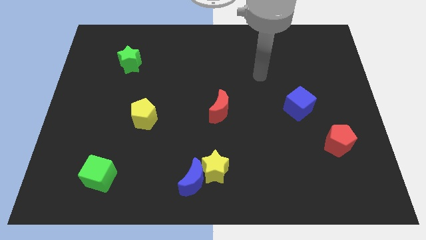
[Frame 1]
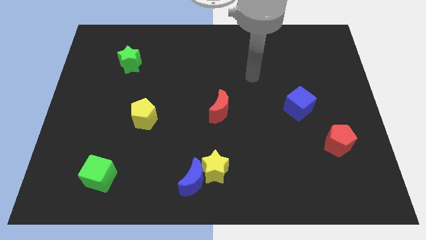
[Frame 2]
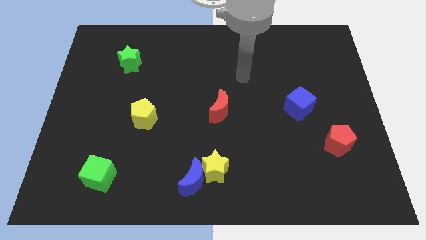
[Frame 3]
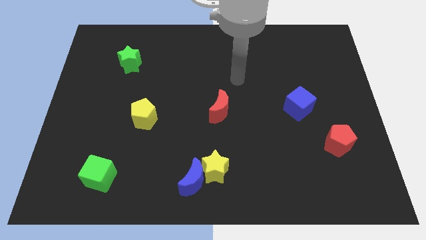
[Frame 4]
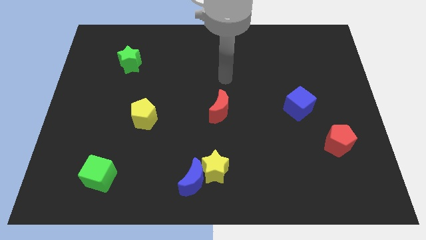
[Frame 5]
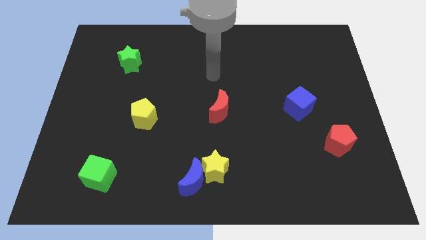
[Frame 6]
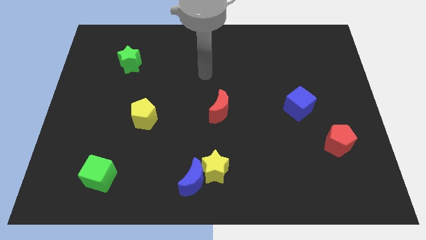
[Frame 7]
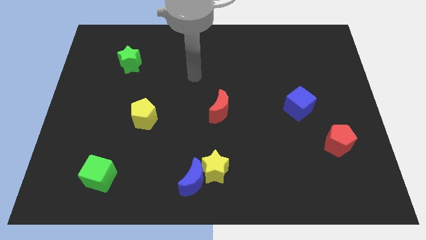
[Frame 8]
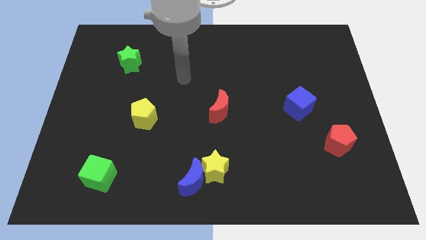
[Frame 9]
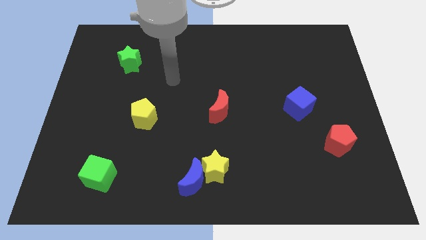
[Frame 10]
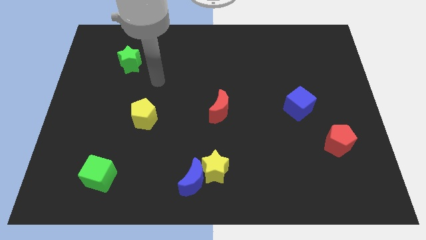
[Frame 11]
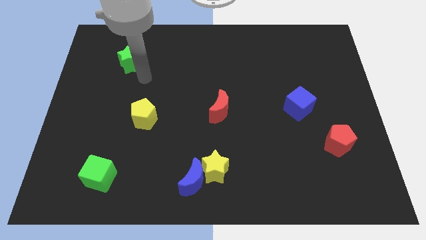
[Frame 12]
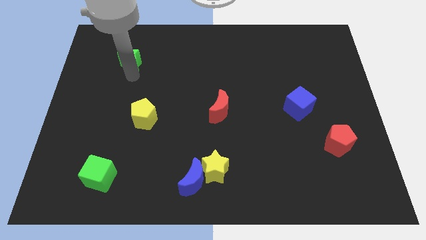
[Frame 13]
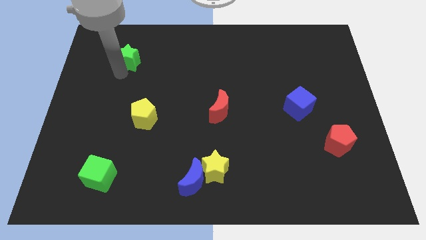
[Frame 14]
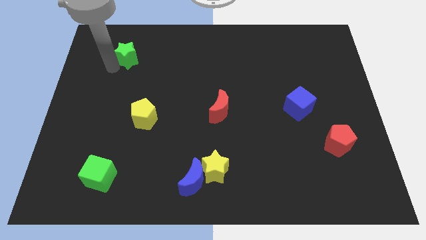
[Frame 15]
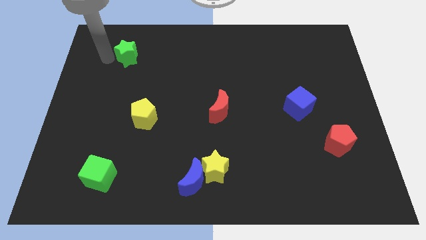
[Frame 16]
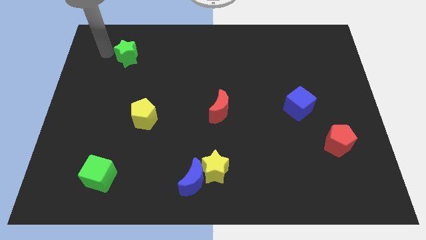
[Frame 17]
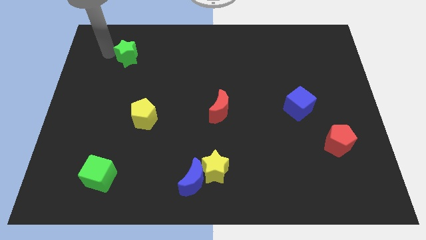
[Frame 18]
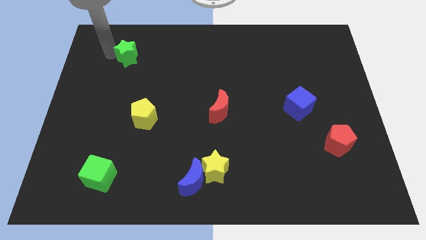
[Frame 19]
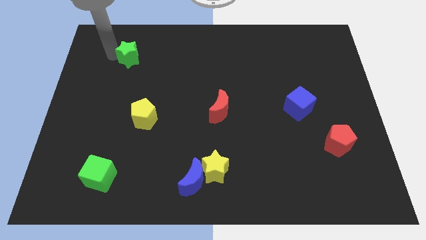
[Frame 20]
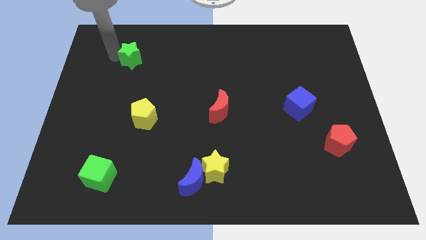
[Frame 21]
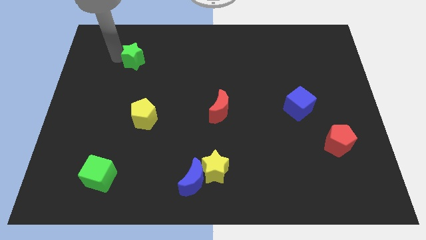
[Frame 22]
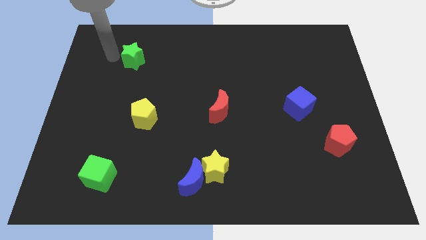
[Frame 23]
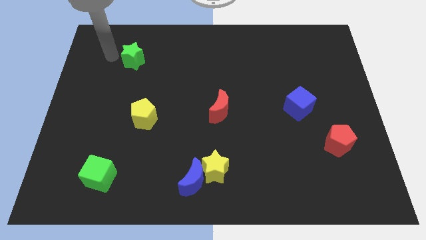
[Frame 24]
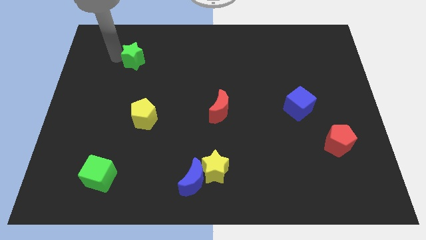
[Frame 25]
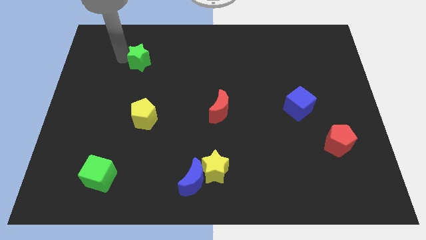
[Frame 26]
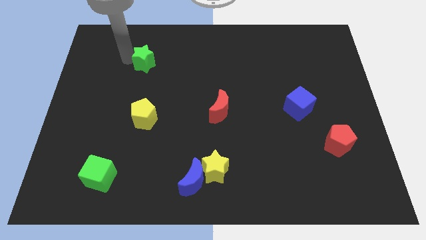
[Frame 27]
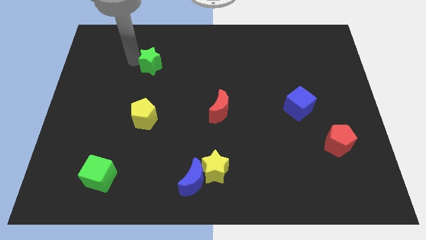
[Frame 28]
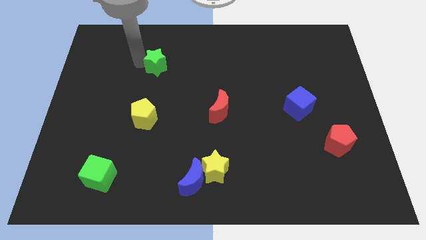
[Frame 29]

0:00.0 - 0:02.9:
move the green star right a little

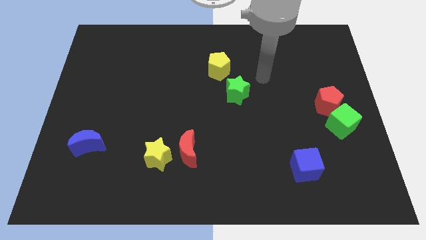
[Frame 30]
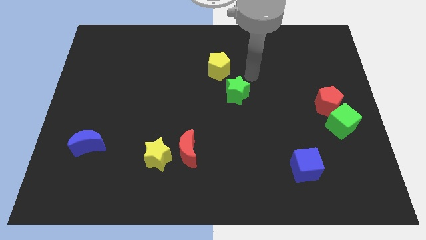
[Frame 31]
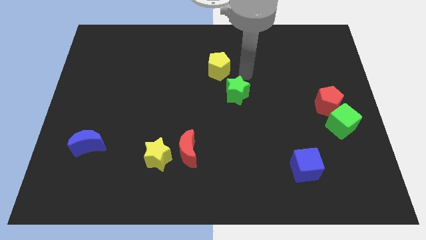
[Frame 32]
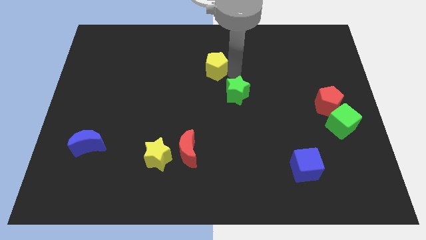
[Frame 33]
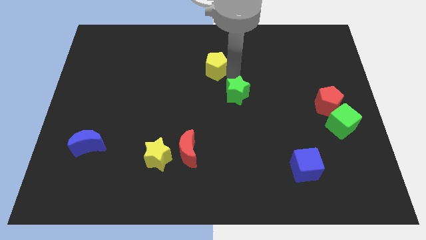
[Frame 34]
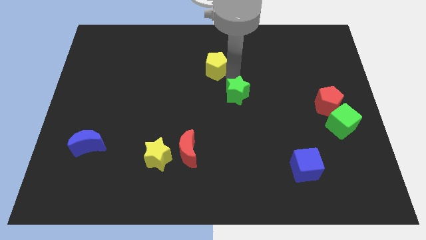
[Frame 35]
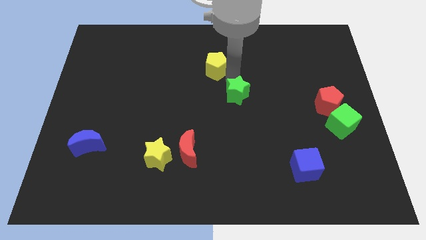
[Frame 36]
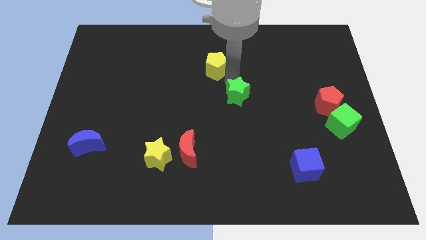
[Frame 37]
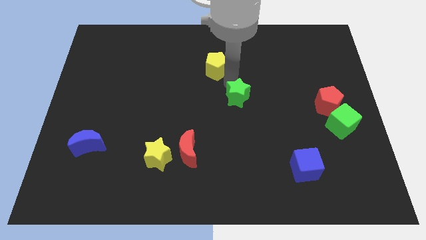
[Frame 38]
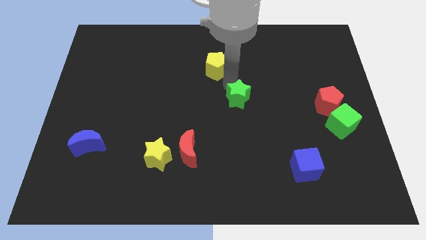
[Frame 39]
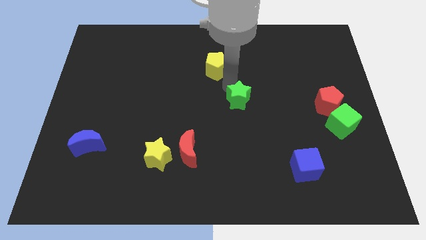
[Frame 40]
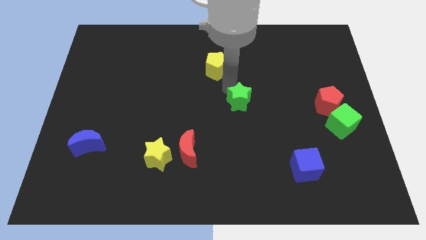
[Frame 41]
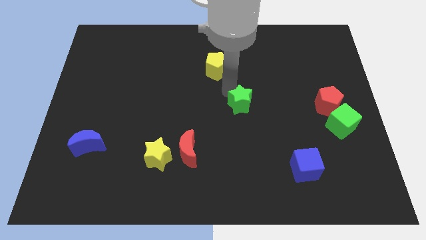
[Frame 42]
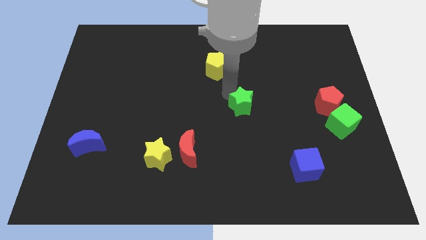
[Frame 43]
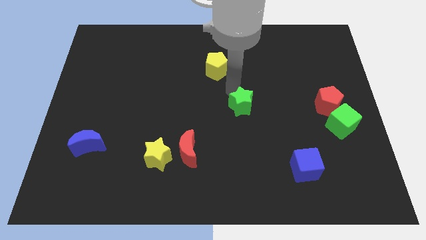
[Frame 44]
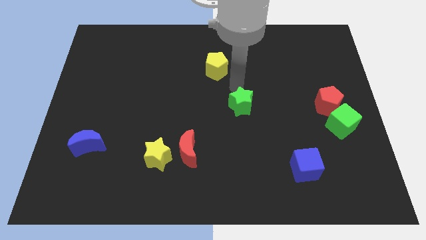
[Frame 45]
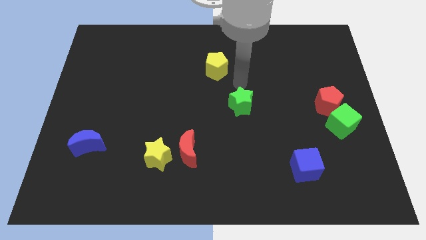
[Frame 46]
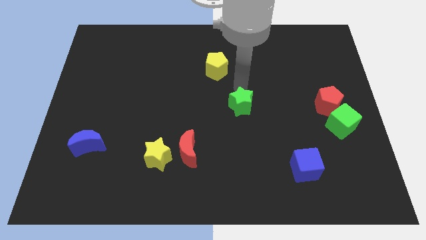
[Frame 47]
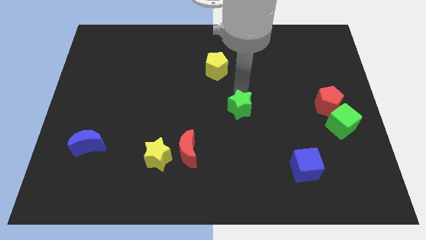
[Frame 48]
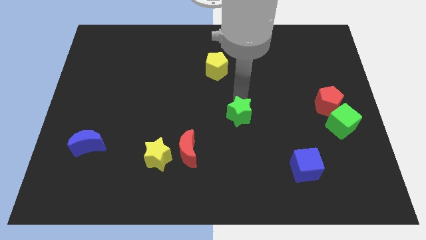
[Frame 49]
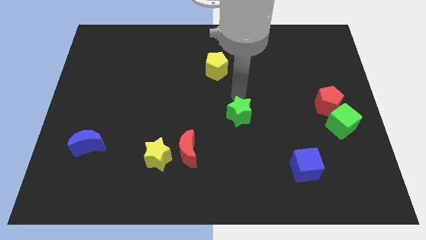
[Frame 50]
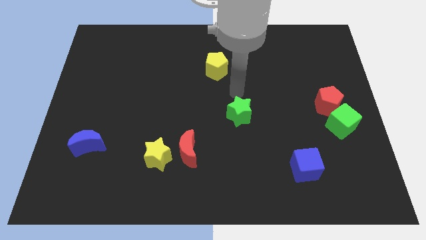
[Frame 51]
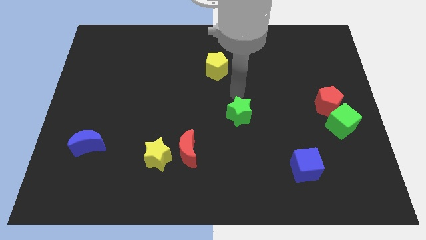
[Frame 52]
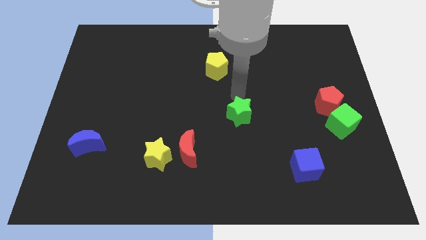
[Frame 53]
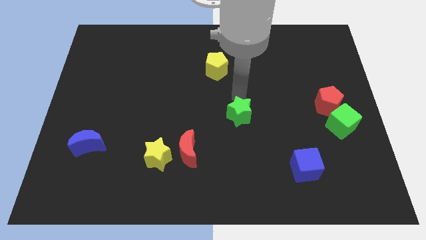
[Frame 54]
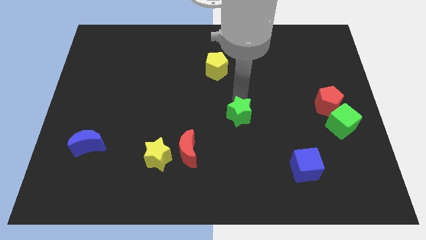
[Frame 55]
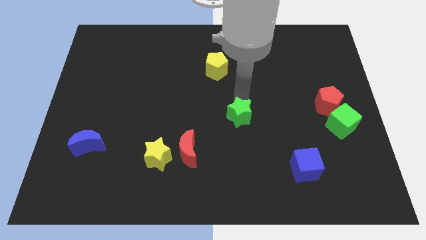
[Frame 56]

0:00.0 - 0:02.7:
slide the green star down a little bit

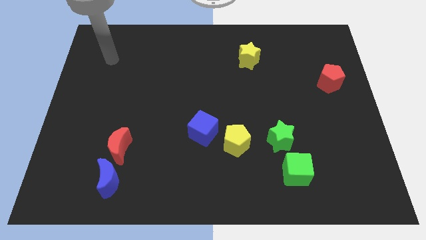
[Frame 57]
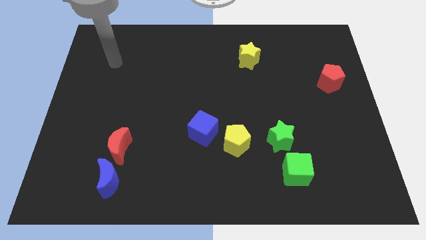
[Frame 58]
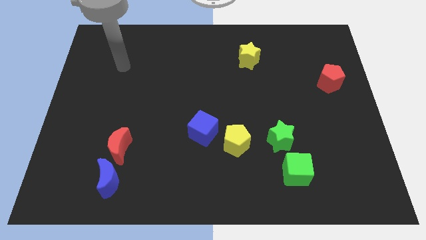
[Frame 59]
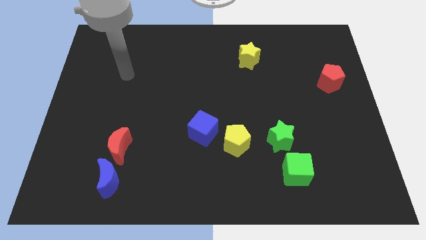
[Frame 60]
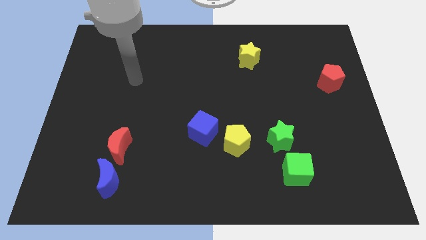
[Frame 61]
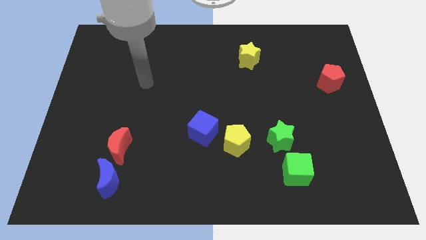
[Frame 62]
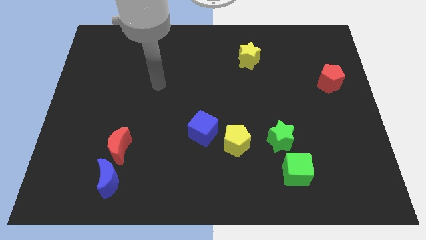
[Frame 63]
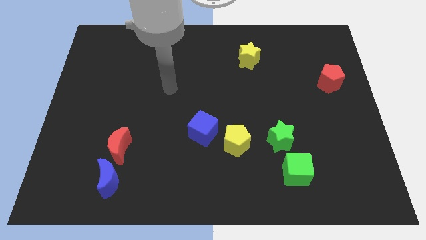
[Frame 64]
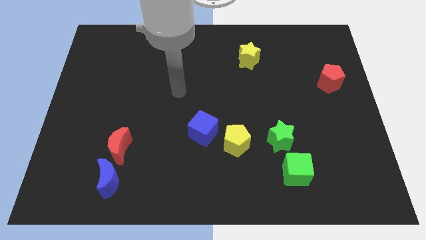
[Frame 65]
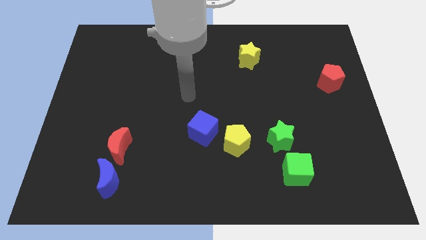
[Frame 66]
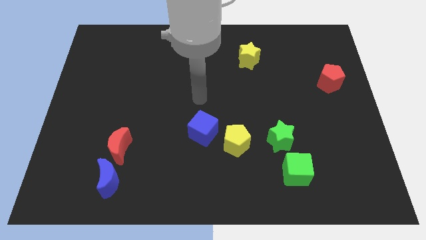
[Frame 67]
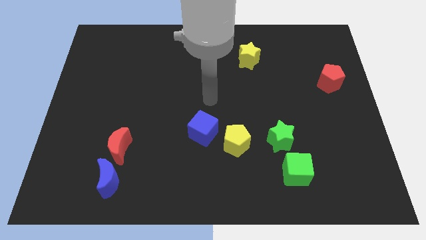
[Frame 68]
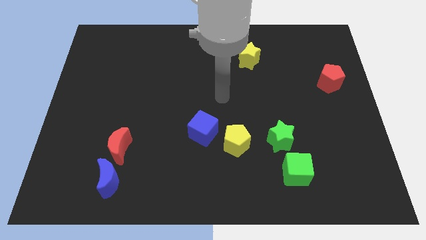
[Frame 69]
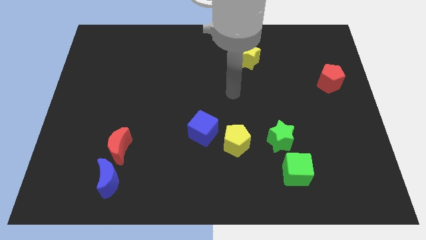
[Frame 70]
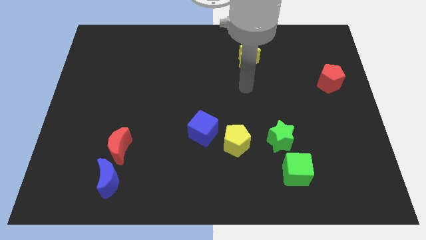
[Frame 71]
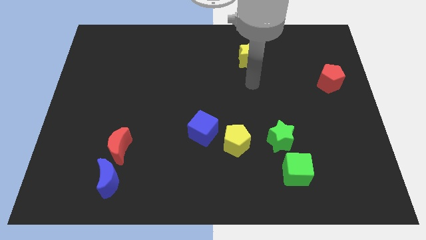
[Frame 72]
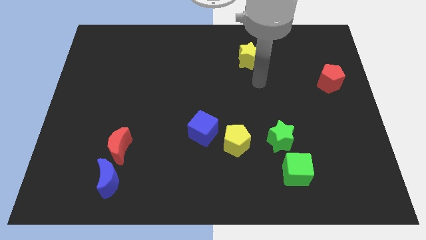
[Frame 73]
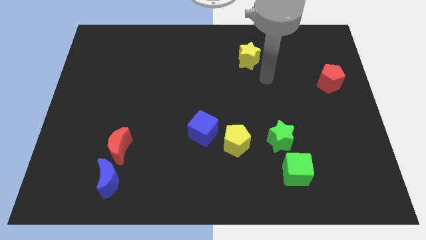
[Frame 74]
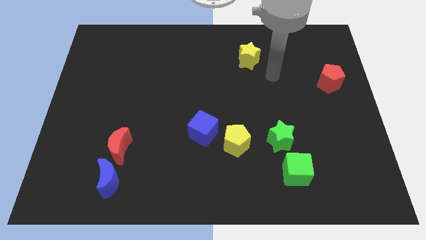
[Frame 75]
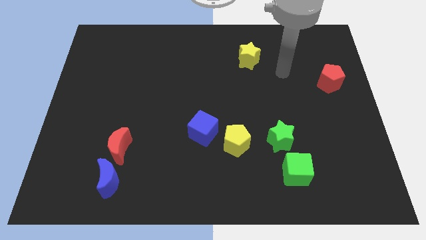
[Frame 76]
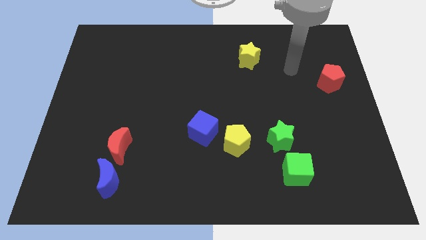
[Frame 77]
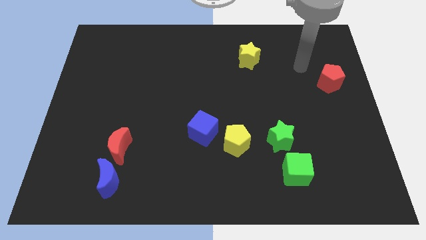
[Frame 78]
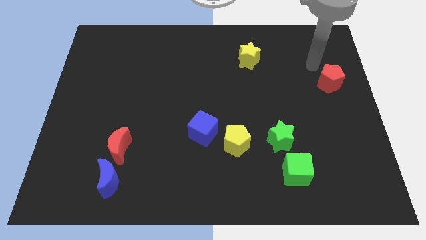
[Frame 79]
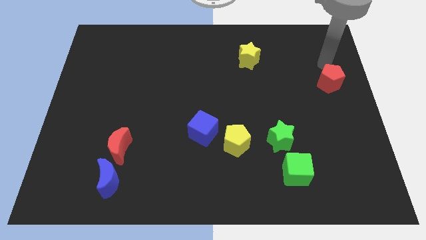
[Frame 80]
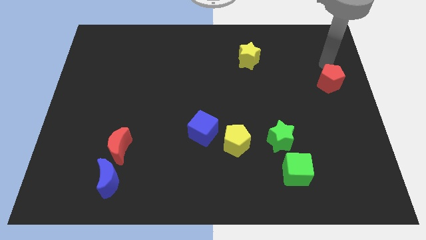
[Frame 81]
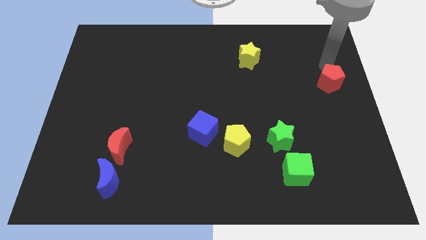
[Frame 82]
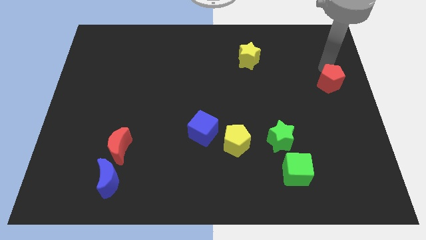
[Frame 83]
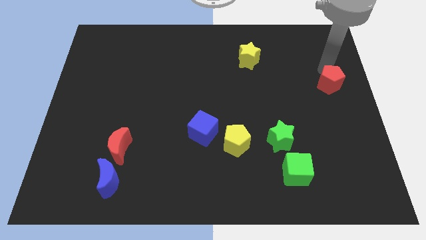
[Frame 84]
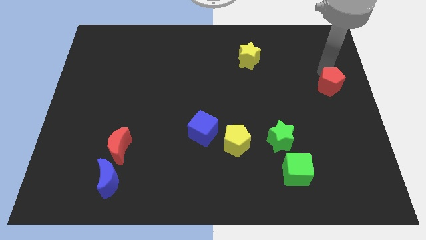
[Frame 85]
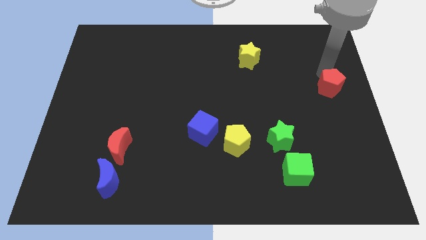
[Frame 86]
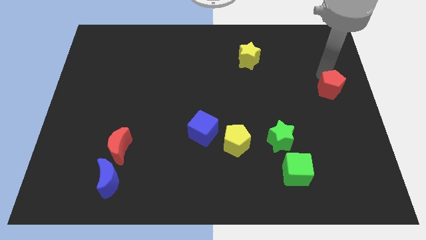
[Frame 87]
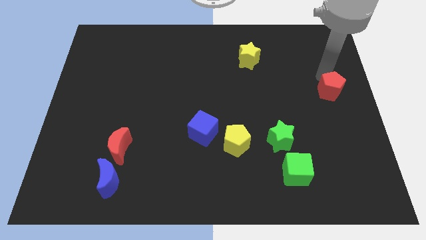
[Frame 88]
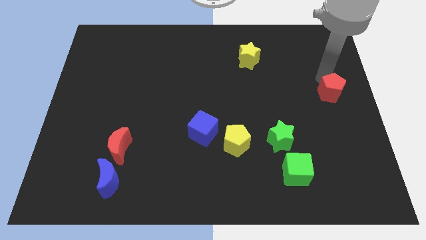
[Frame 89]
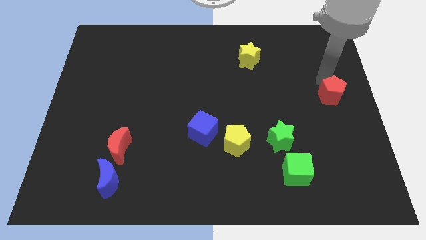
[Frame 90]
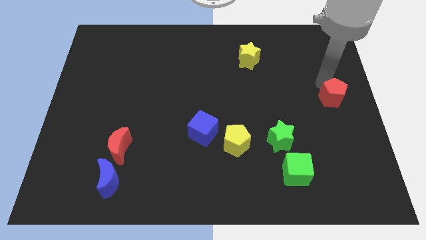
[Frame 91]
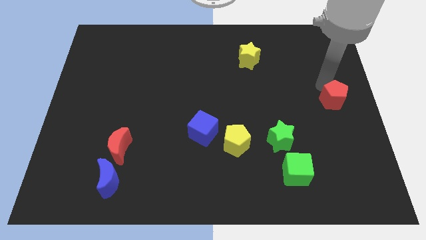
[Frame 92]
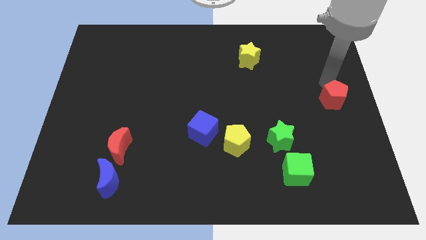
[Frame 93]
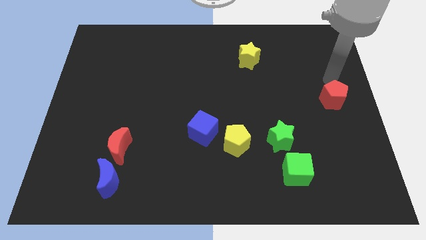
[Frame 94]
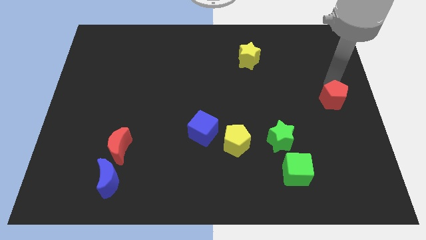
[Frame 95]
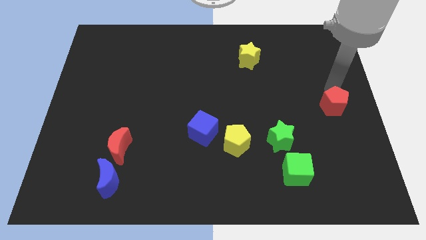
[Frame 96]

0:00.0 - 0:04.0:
push the red pentagon down a bit
